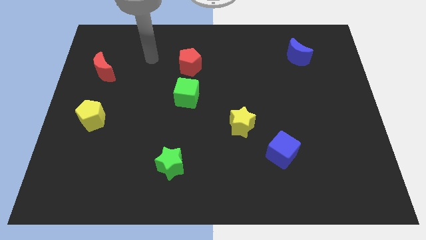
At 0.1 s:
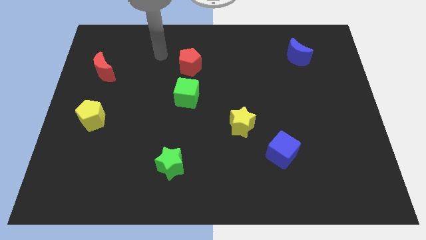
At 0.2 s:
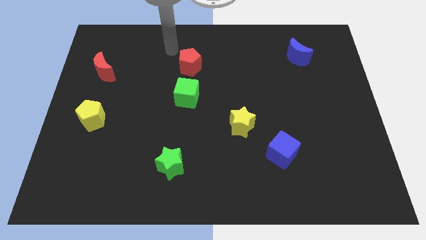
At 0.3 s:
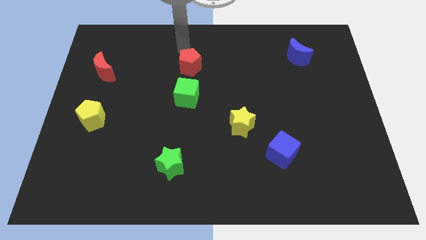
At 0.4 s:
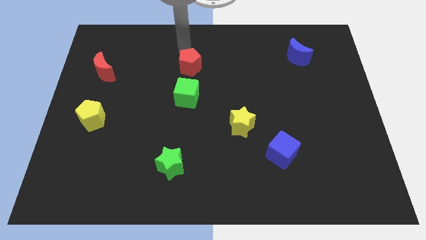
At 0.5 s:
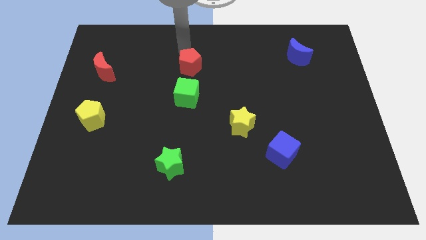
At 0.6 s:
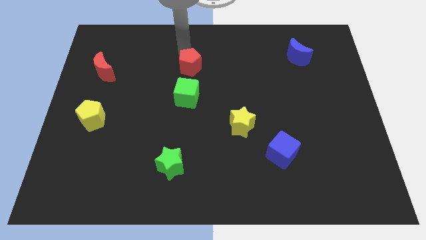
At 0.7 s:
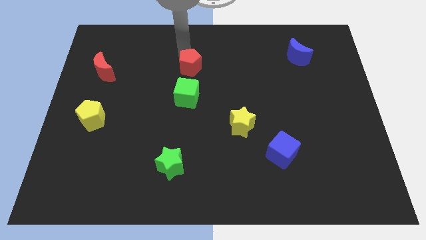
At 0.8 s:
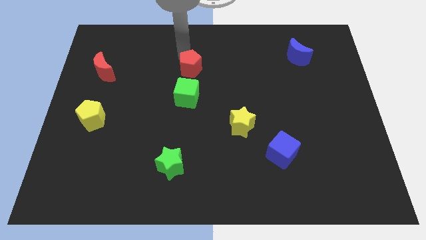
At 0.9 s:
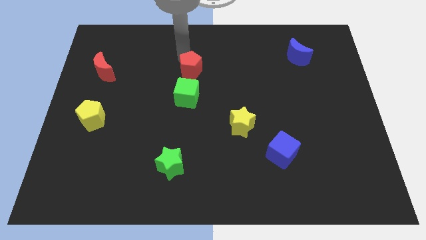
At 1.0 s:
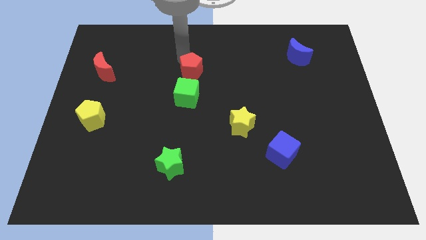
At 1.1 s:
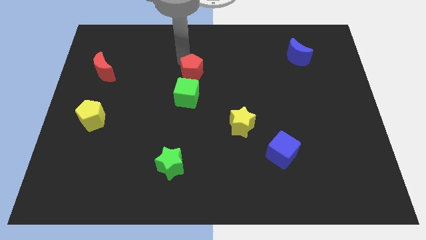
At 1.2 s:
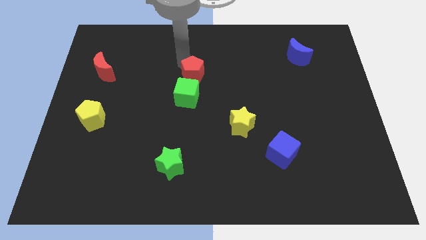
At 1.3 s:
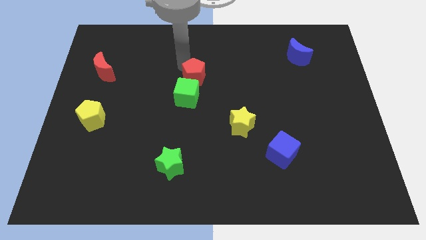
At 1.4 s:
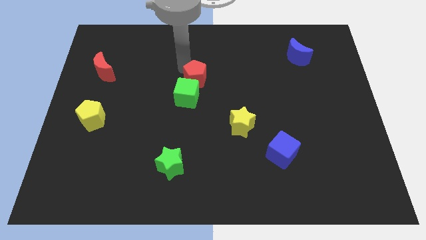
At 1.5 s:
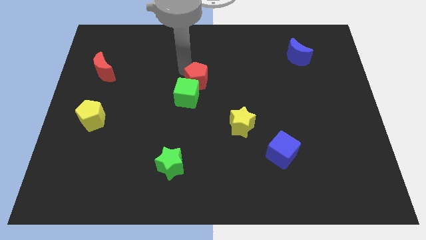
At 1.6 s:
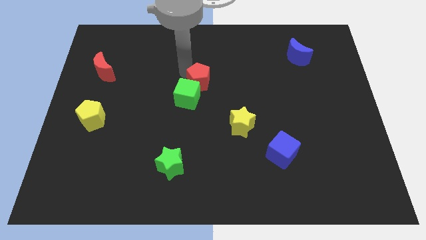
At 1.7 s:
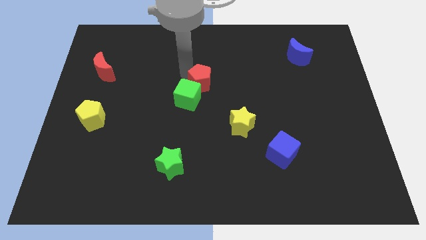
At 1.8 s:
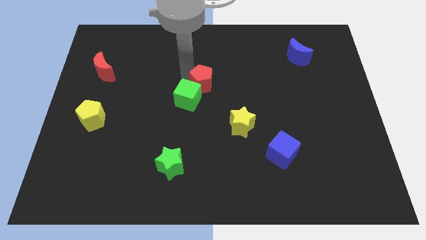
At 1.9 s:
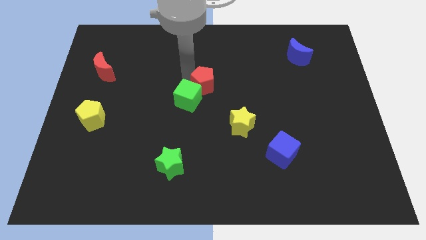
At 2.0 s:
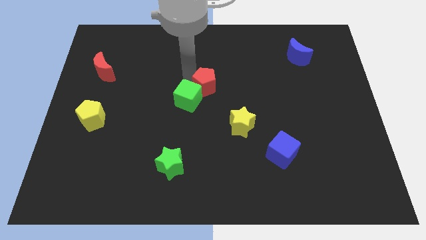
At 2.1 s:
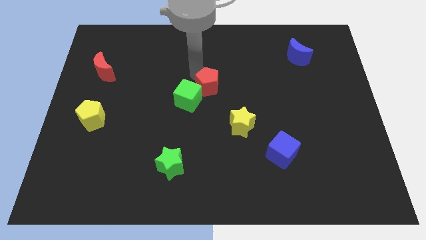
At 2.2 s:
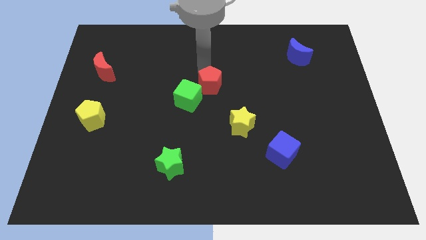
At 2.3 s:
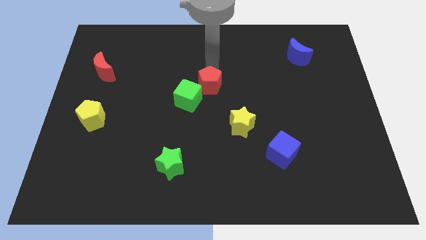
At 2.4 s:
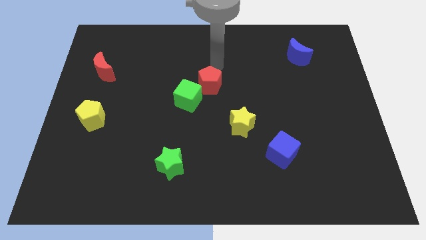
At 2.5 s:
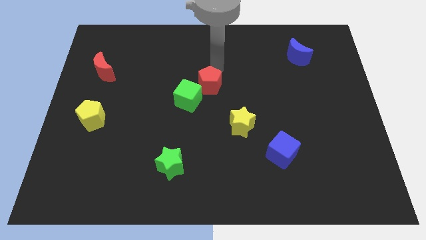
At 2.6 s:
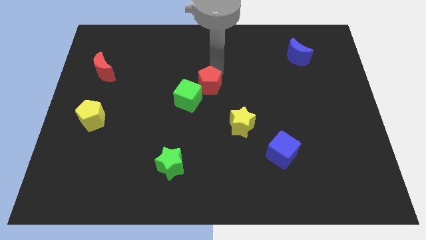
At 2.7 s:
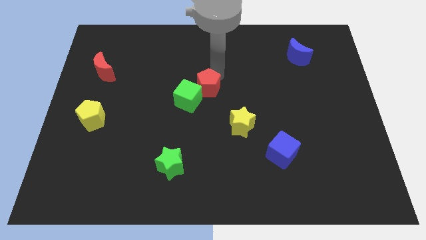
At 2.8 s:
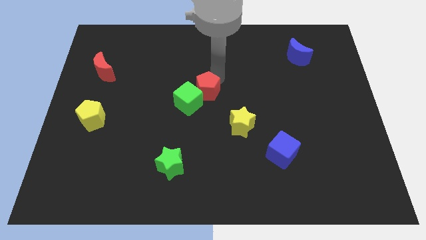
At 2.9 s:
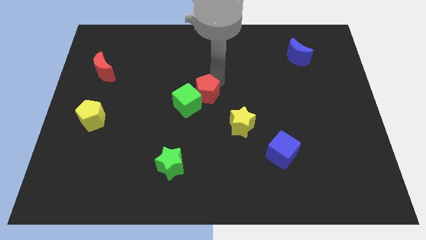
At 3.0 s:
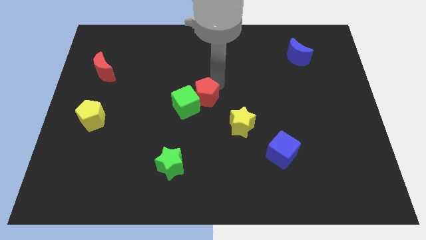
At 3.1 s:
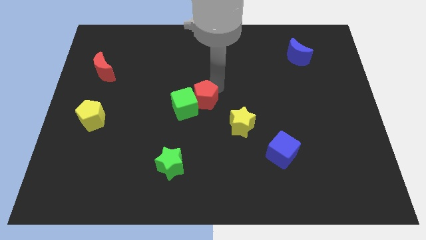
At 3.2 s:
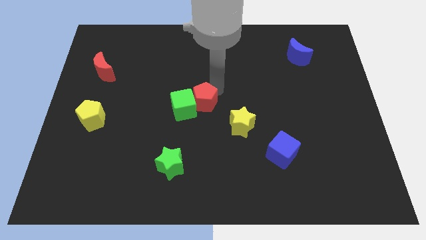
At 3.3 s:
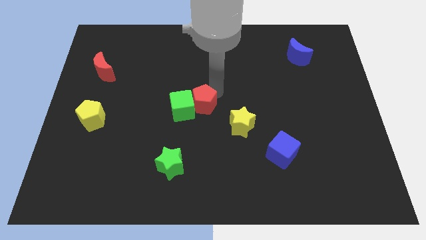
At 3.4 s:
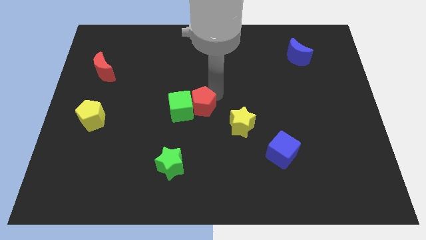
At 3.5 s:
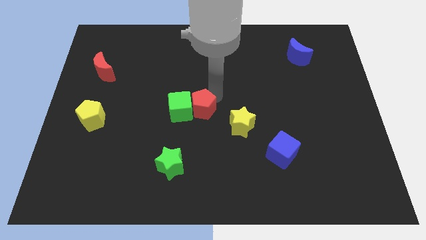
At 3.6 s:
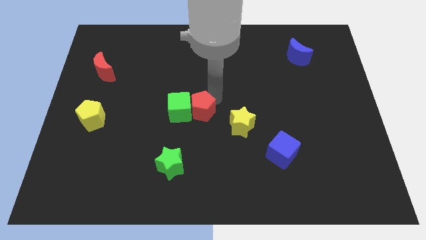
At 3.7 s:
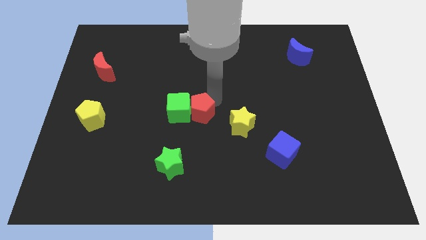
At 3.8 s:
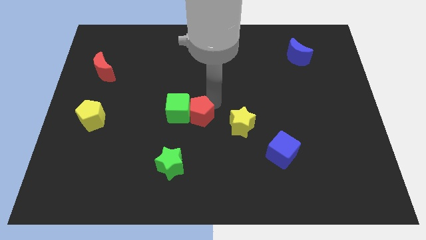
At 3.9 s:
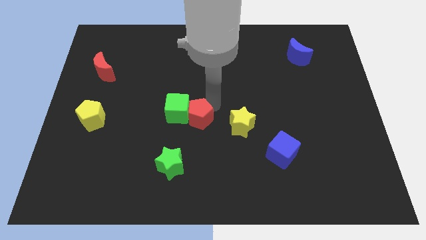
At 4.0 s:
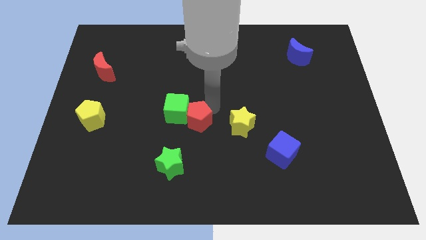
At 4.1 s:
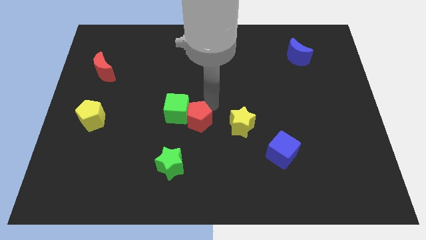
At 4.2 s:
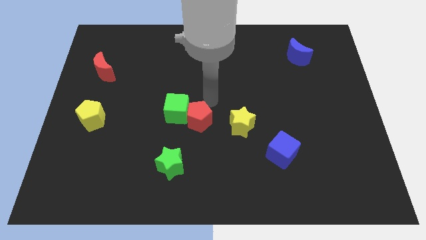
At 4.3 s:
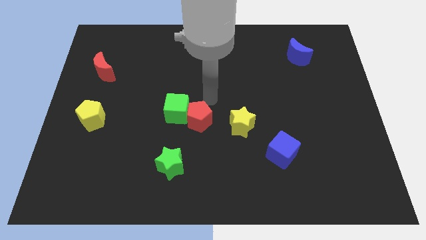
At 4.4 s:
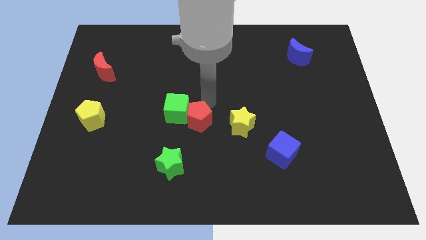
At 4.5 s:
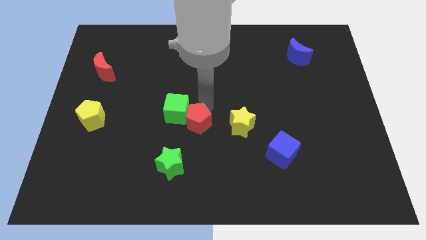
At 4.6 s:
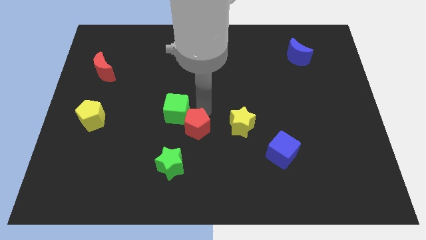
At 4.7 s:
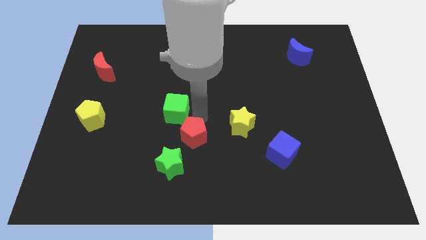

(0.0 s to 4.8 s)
move the red pentagon down

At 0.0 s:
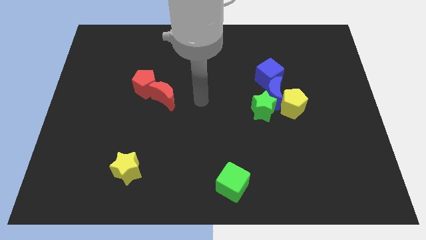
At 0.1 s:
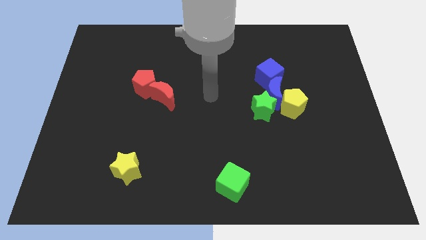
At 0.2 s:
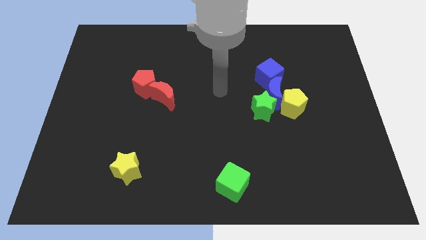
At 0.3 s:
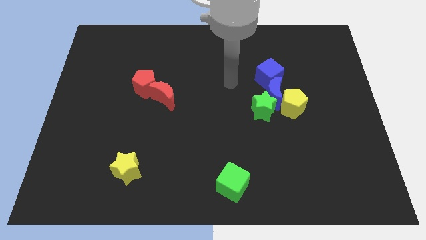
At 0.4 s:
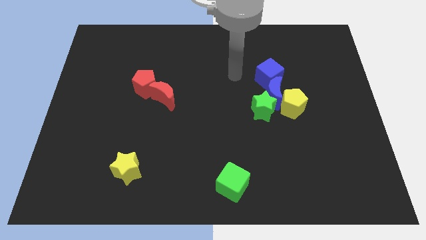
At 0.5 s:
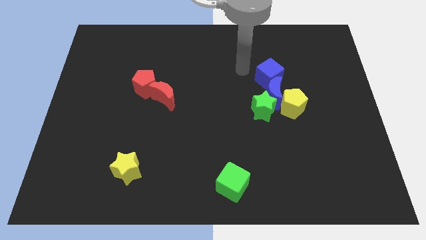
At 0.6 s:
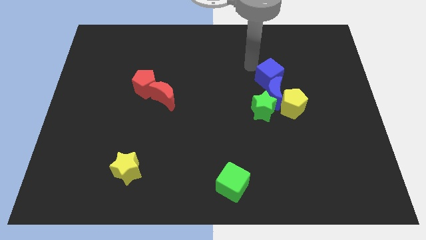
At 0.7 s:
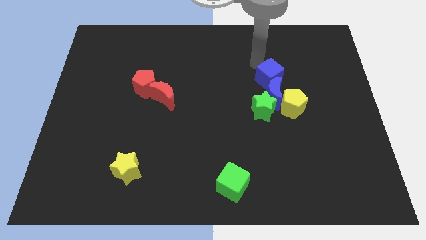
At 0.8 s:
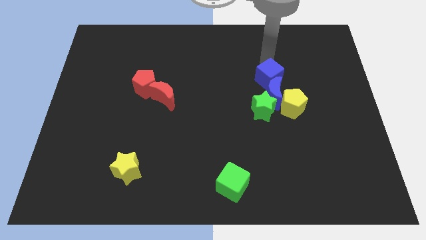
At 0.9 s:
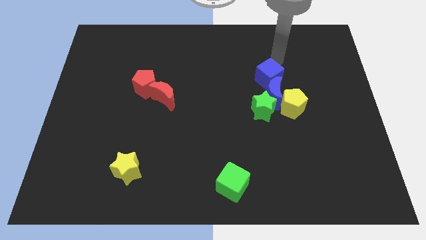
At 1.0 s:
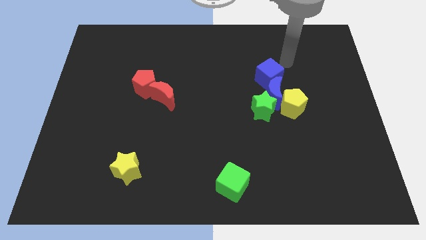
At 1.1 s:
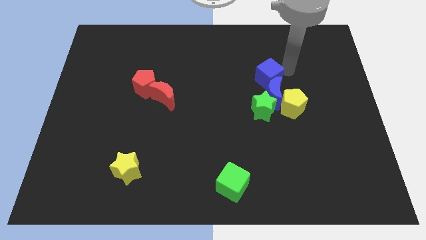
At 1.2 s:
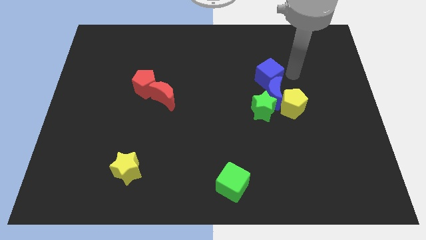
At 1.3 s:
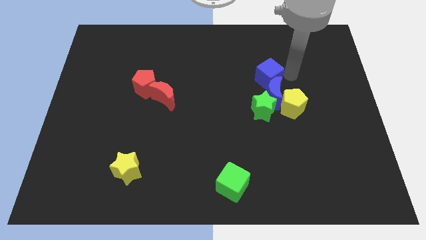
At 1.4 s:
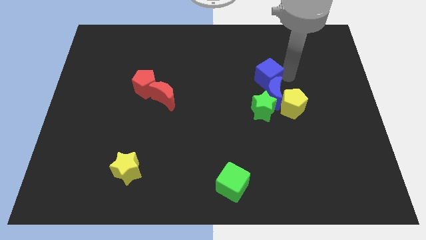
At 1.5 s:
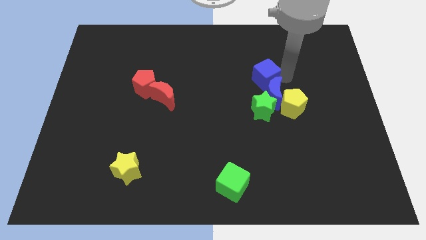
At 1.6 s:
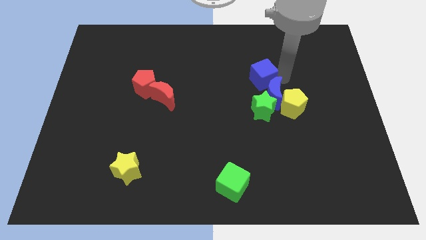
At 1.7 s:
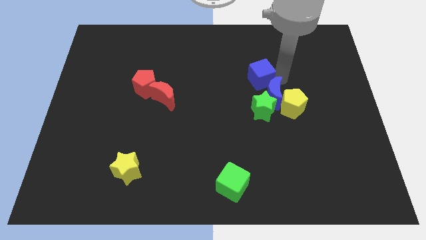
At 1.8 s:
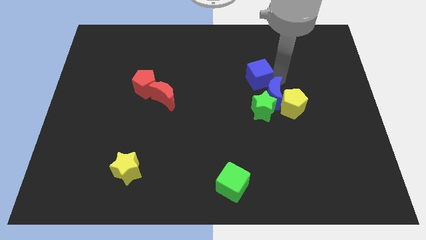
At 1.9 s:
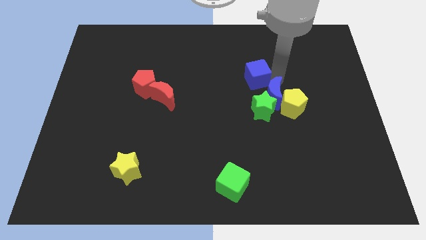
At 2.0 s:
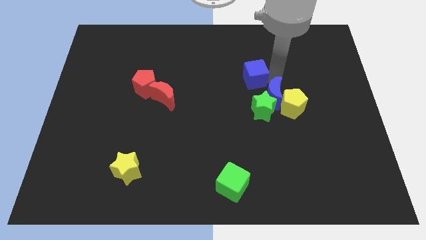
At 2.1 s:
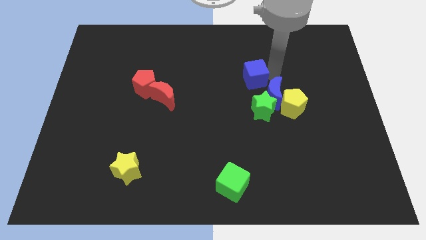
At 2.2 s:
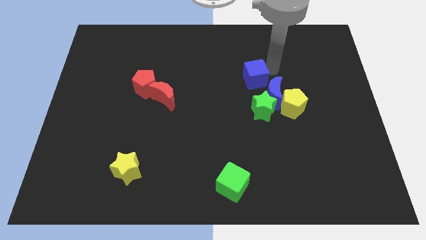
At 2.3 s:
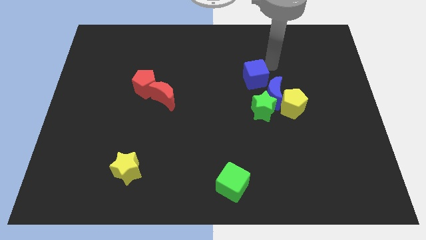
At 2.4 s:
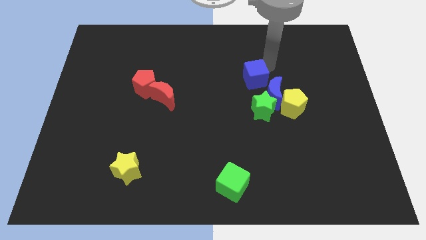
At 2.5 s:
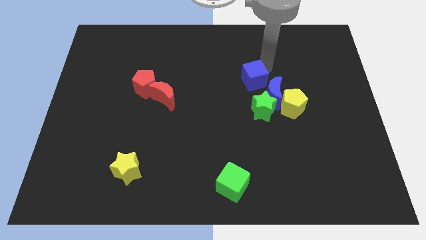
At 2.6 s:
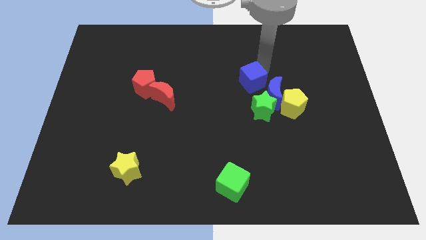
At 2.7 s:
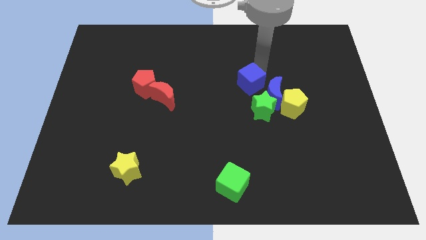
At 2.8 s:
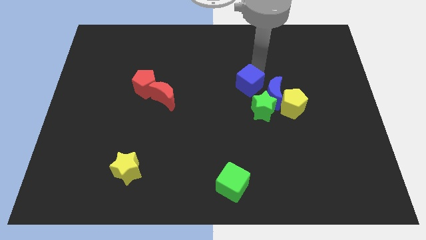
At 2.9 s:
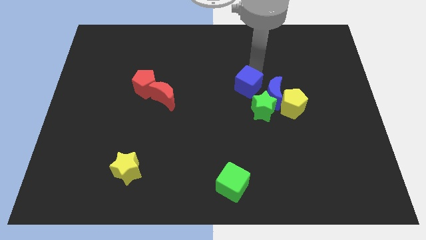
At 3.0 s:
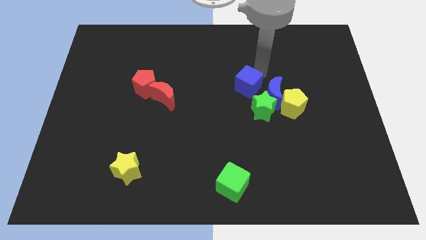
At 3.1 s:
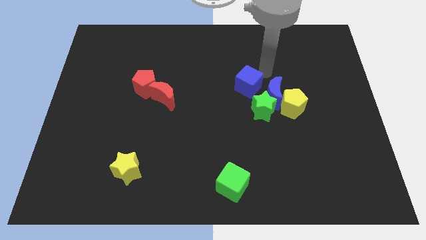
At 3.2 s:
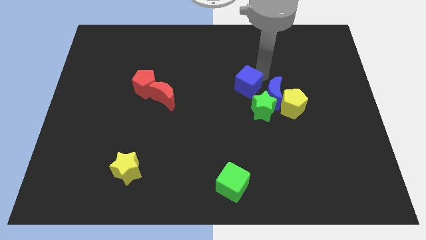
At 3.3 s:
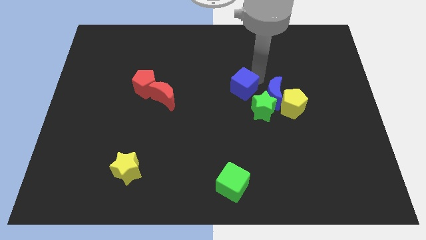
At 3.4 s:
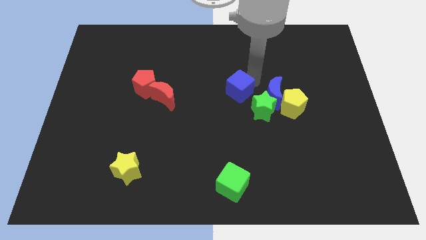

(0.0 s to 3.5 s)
move the blue cube diagonally downwards and to the left a bit
